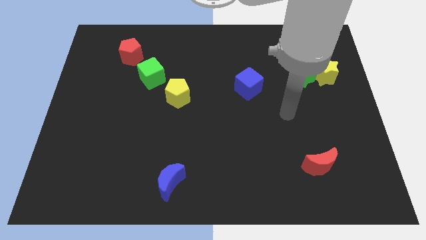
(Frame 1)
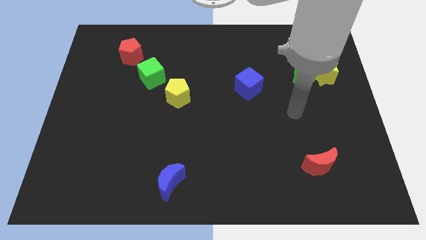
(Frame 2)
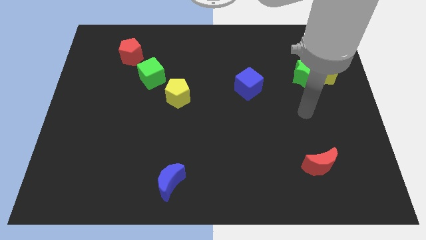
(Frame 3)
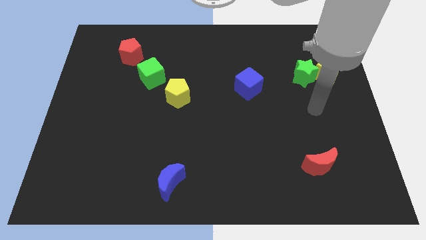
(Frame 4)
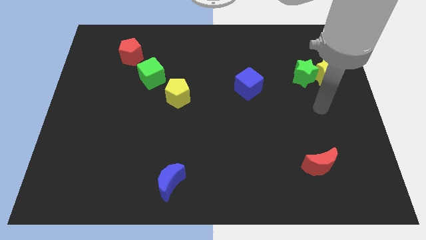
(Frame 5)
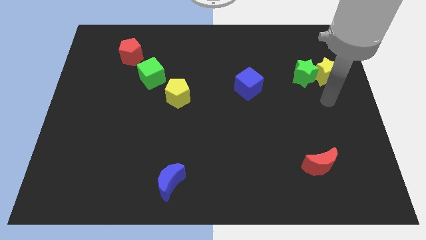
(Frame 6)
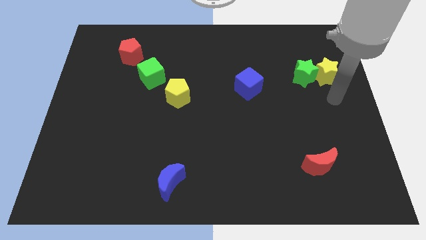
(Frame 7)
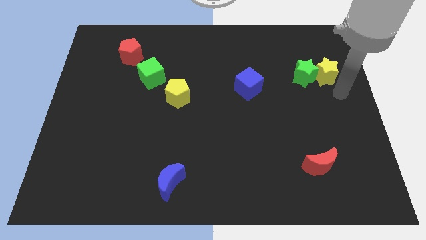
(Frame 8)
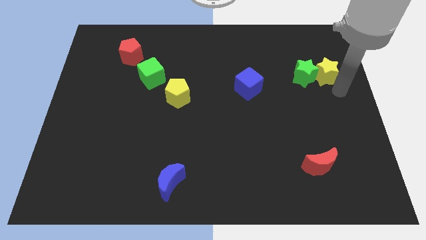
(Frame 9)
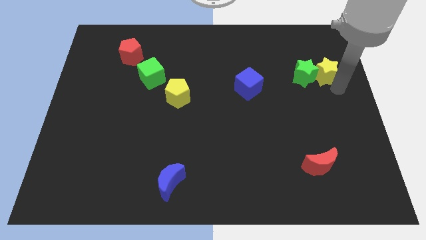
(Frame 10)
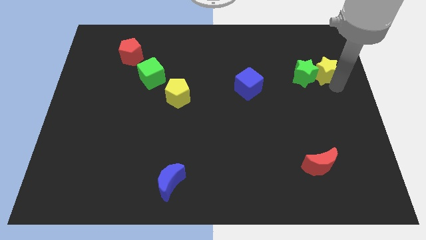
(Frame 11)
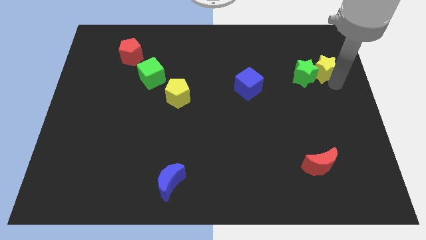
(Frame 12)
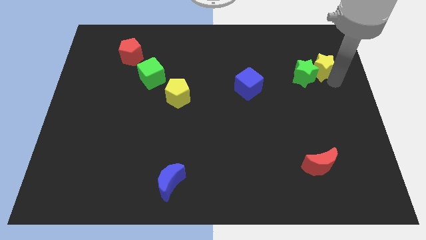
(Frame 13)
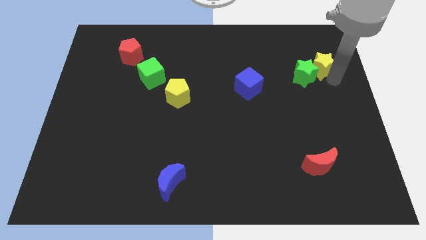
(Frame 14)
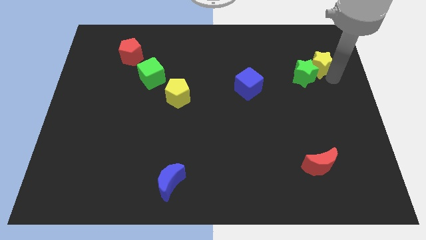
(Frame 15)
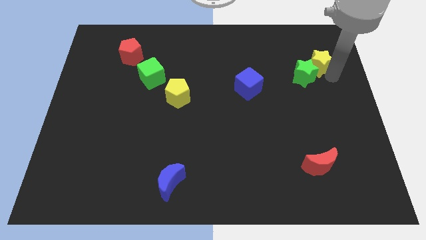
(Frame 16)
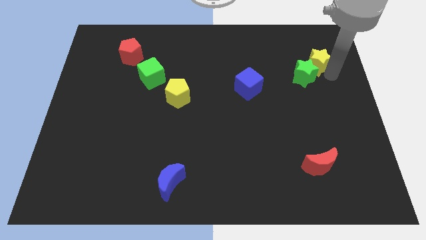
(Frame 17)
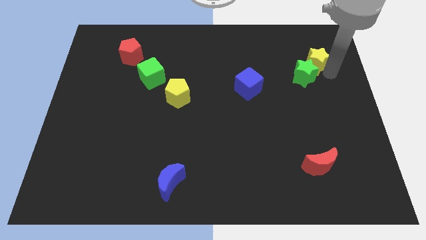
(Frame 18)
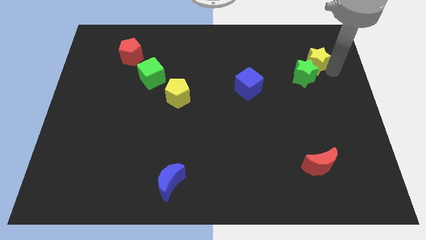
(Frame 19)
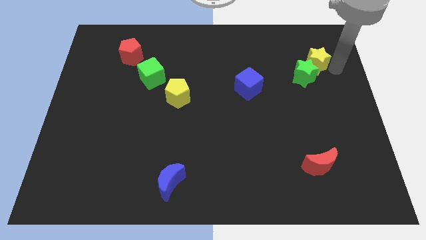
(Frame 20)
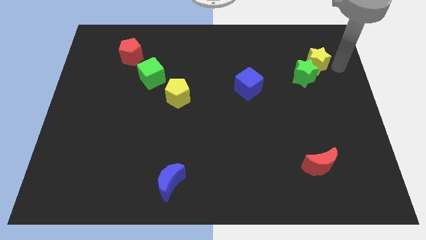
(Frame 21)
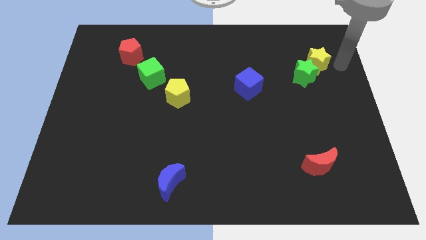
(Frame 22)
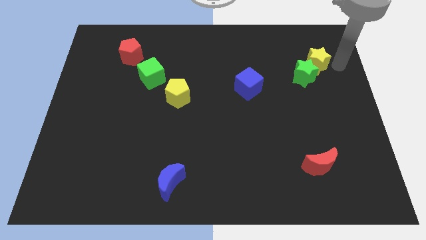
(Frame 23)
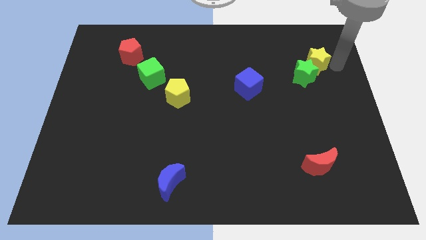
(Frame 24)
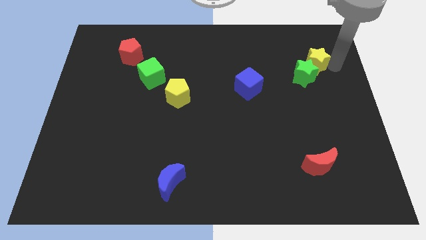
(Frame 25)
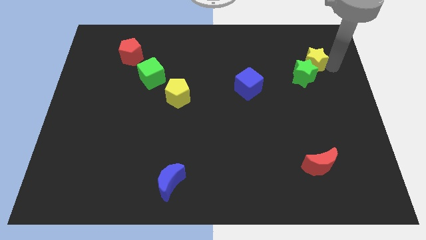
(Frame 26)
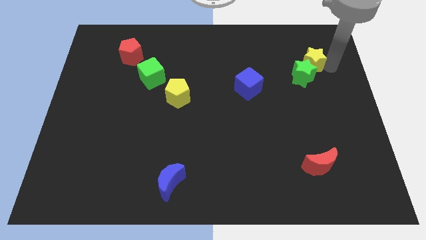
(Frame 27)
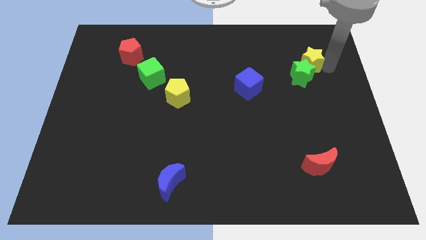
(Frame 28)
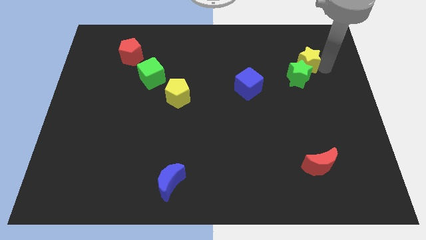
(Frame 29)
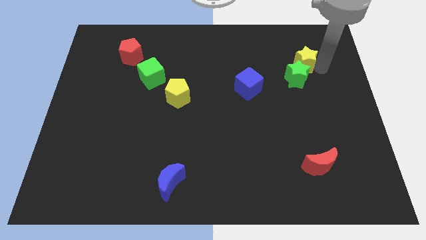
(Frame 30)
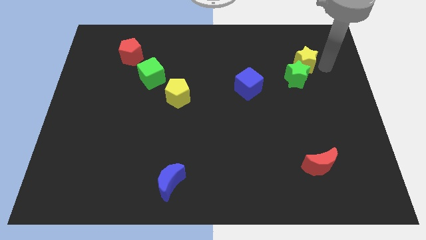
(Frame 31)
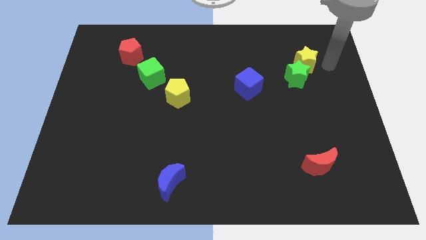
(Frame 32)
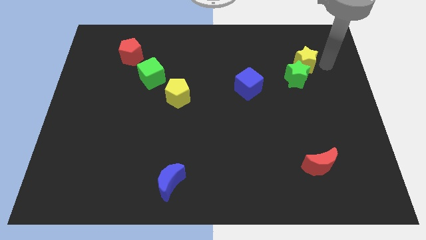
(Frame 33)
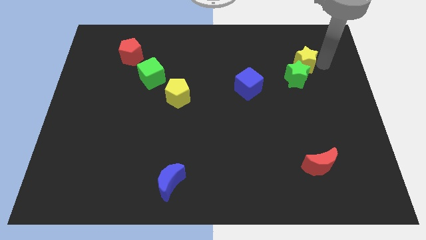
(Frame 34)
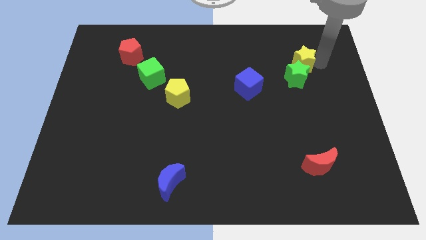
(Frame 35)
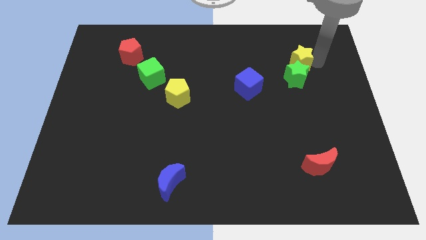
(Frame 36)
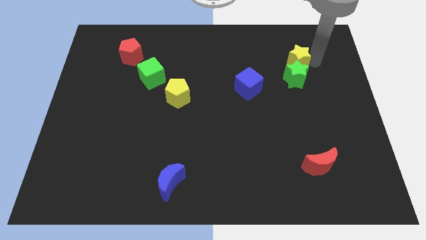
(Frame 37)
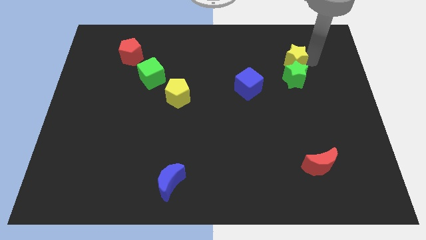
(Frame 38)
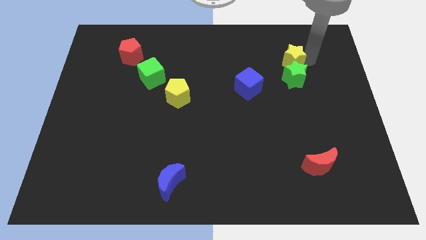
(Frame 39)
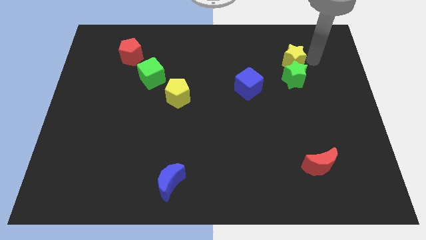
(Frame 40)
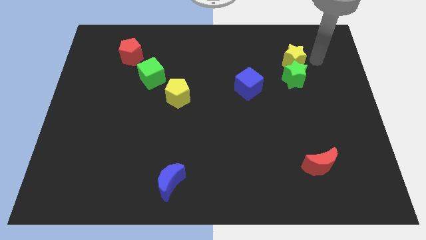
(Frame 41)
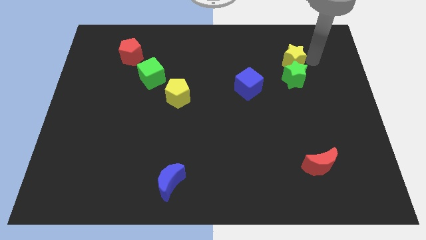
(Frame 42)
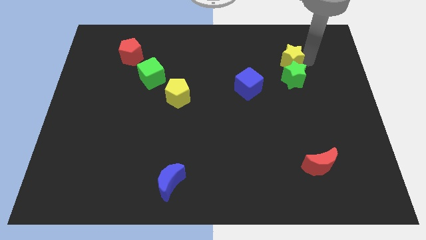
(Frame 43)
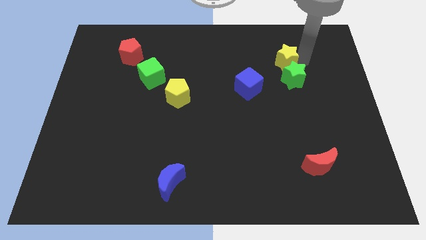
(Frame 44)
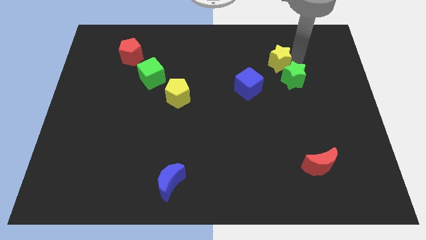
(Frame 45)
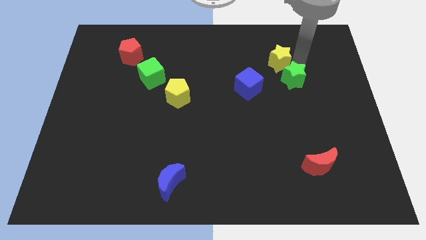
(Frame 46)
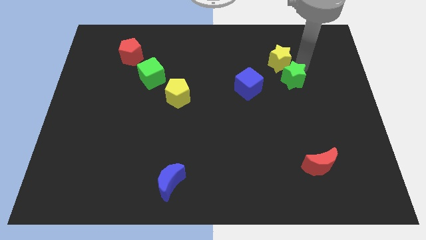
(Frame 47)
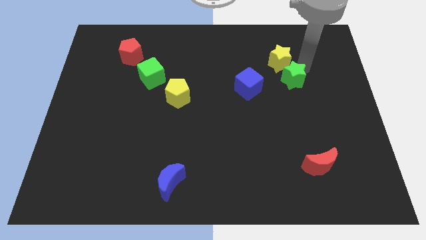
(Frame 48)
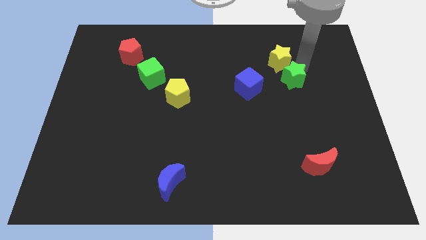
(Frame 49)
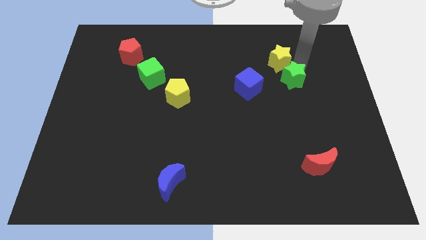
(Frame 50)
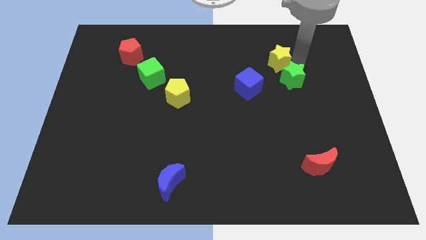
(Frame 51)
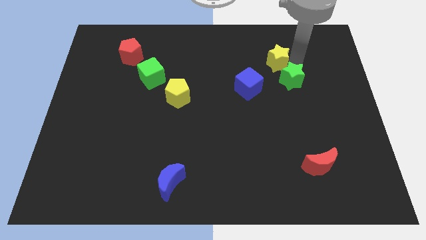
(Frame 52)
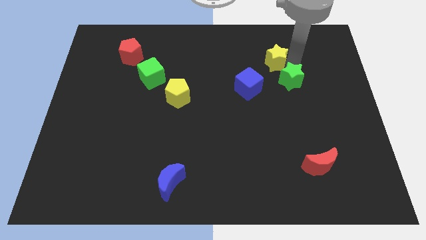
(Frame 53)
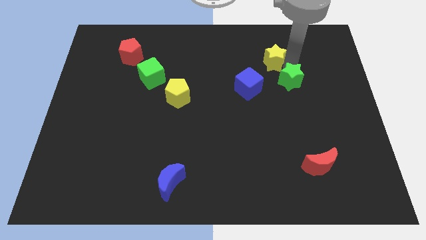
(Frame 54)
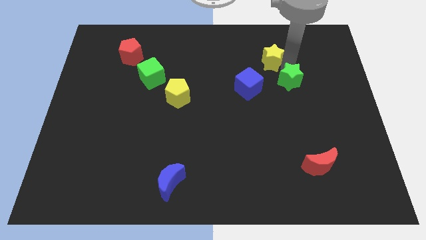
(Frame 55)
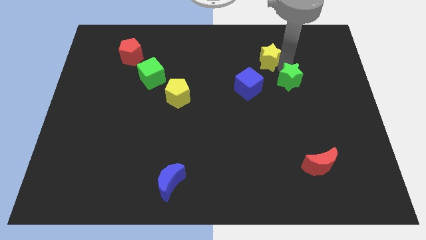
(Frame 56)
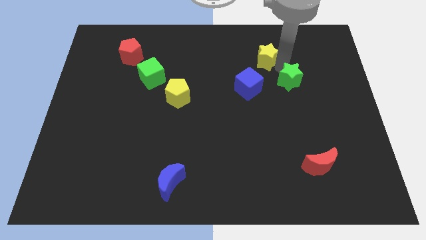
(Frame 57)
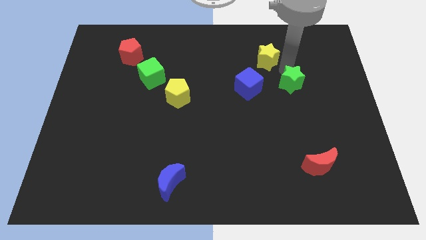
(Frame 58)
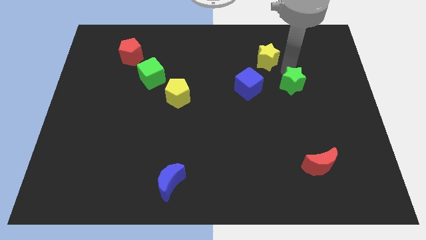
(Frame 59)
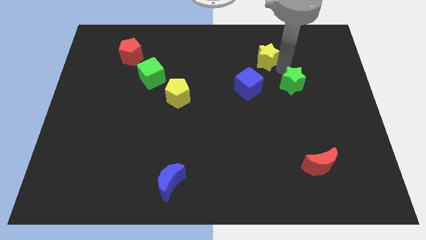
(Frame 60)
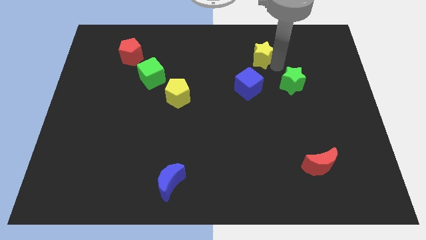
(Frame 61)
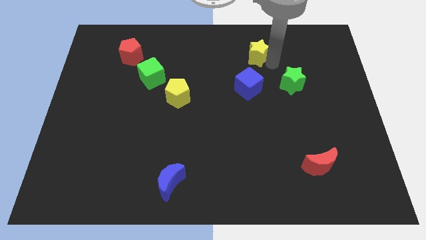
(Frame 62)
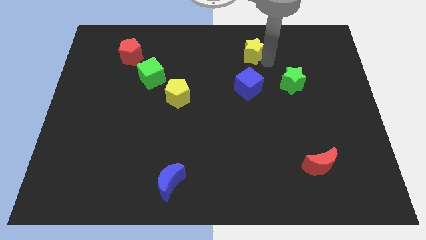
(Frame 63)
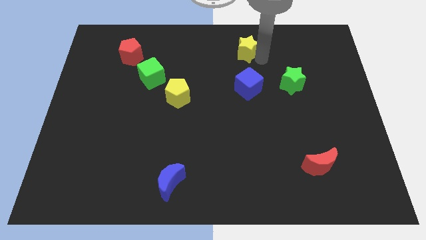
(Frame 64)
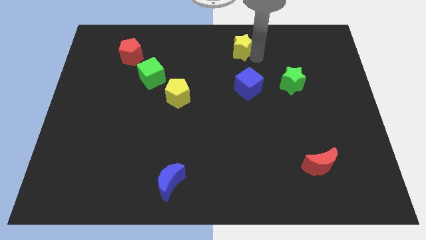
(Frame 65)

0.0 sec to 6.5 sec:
move the yellow star to the towards your base

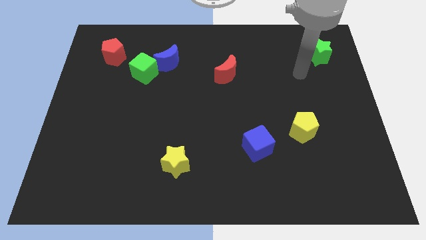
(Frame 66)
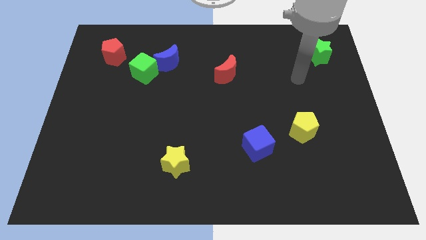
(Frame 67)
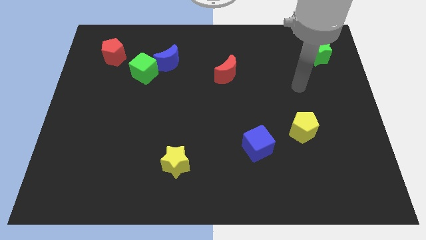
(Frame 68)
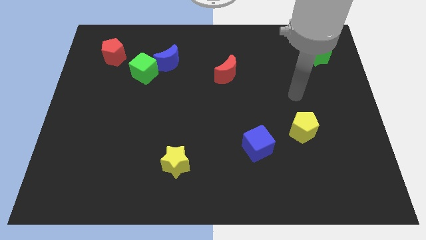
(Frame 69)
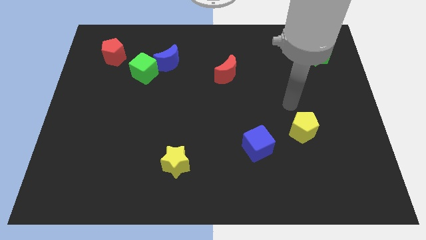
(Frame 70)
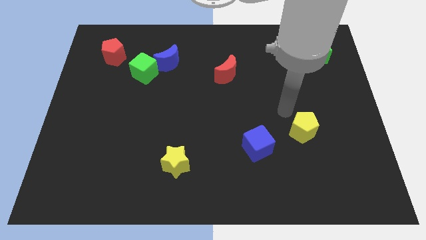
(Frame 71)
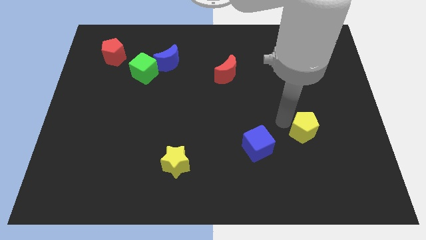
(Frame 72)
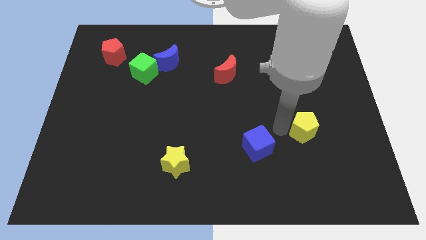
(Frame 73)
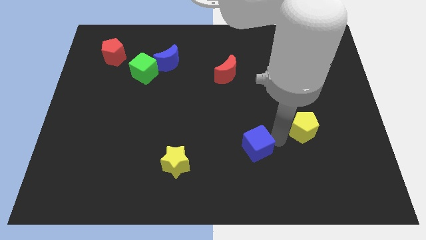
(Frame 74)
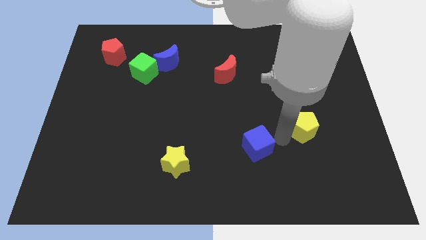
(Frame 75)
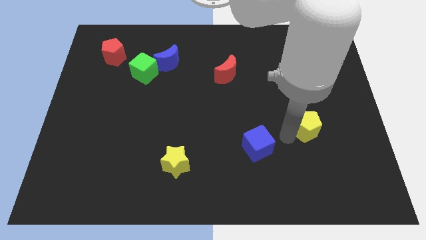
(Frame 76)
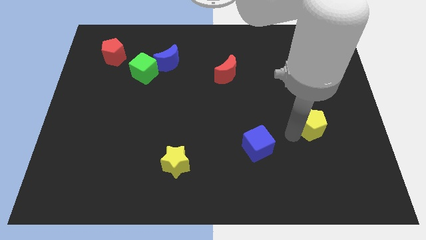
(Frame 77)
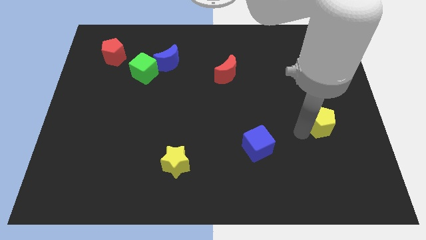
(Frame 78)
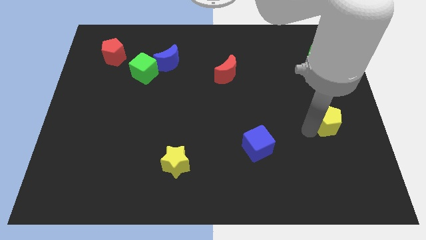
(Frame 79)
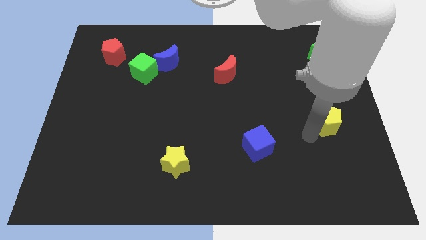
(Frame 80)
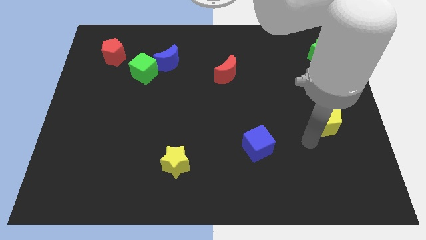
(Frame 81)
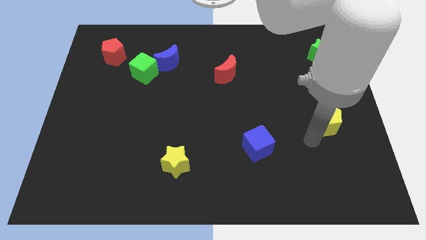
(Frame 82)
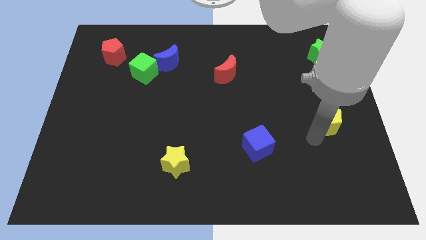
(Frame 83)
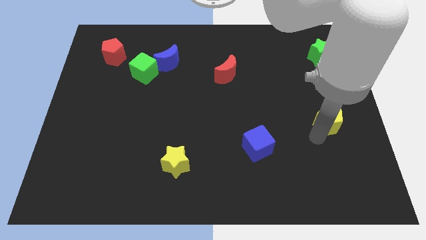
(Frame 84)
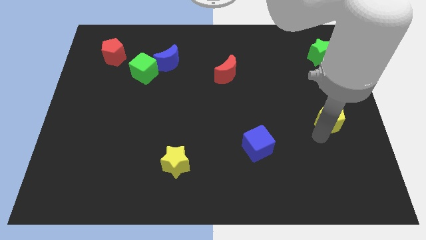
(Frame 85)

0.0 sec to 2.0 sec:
put the yellow pentagon to the right side of the board
